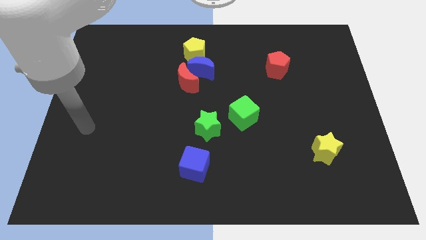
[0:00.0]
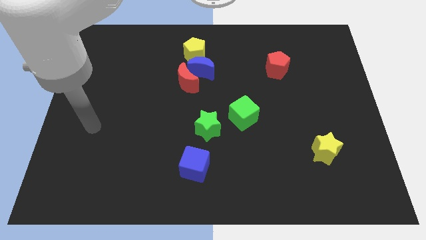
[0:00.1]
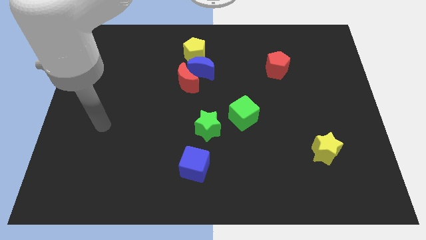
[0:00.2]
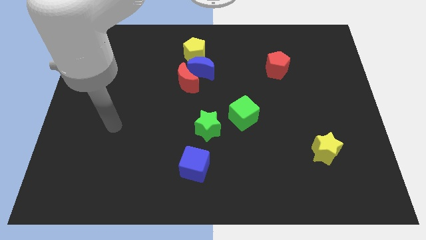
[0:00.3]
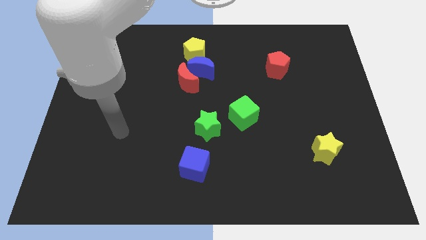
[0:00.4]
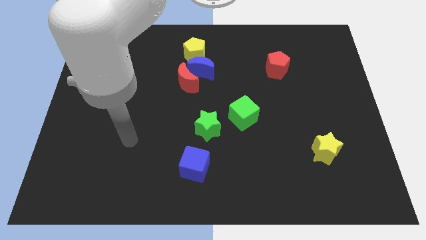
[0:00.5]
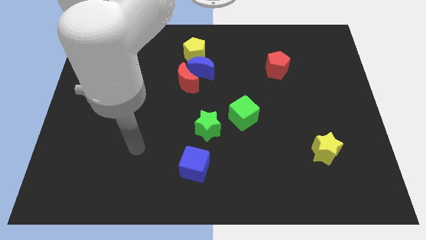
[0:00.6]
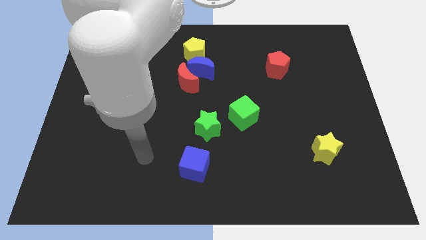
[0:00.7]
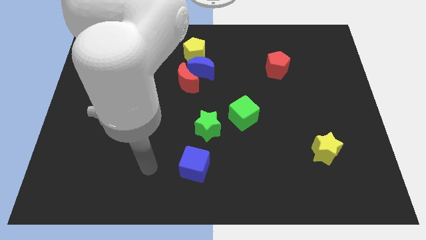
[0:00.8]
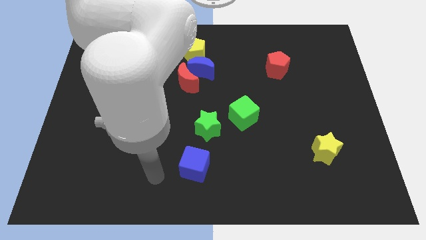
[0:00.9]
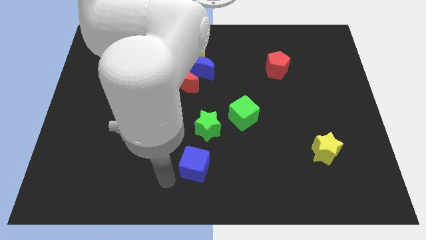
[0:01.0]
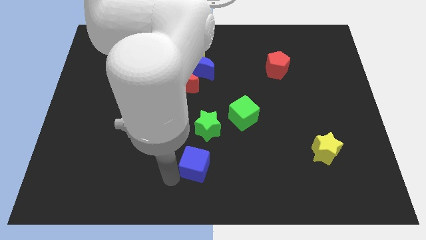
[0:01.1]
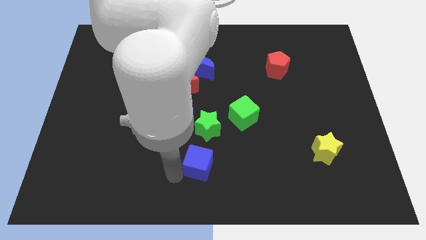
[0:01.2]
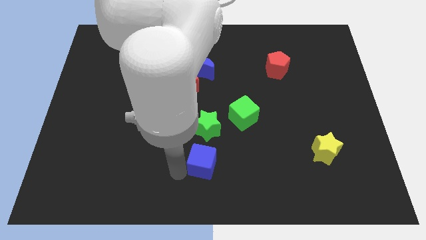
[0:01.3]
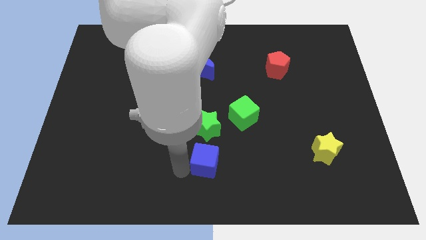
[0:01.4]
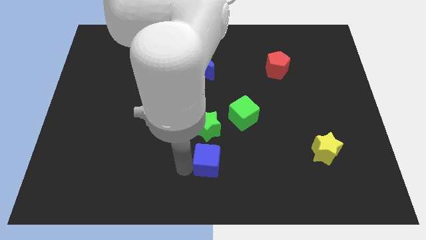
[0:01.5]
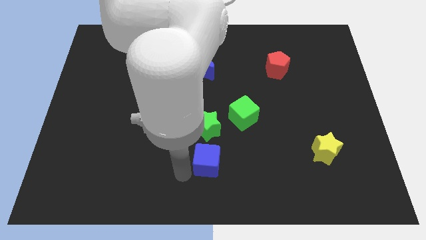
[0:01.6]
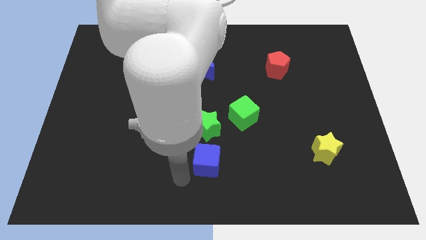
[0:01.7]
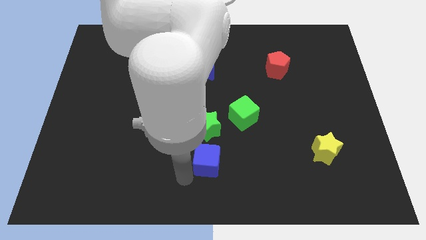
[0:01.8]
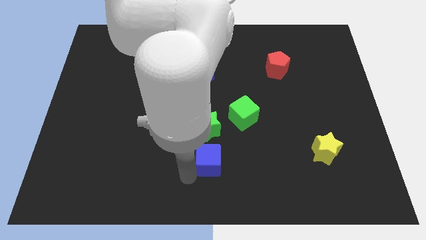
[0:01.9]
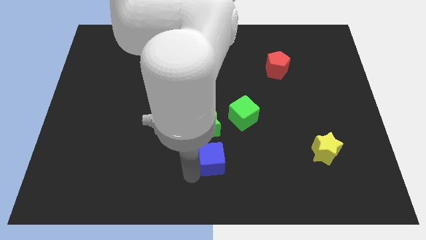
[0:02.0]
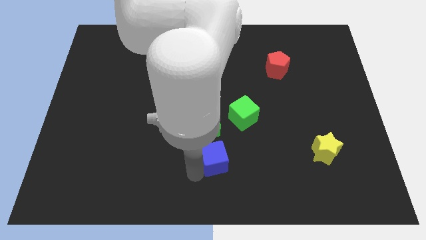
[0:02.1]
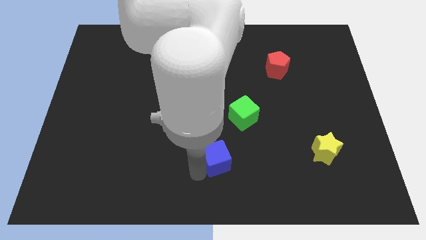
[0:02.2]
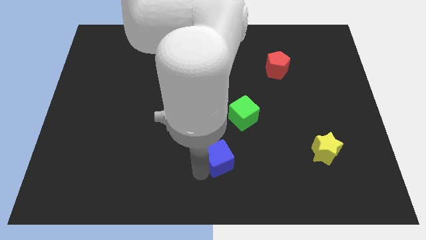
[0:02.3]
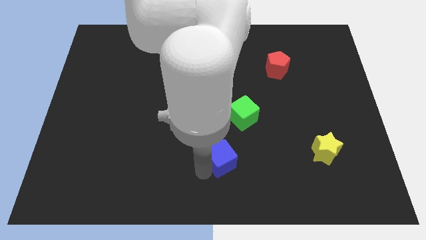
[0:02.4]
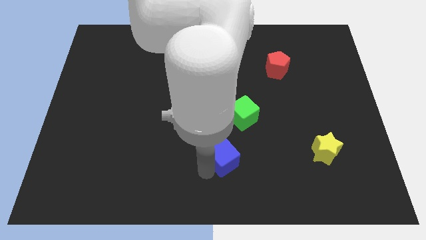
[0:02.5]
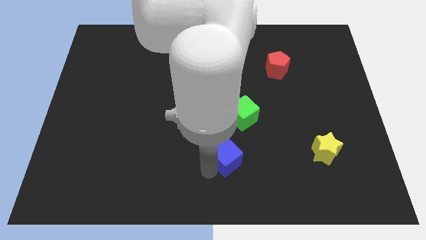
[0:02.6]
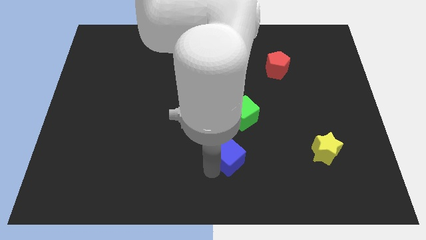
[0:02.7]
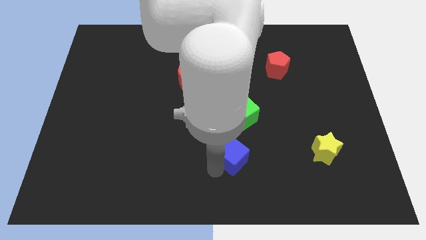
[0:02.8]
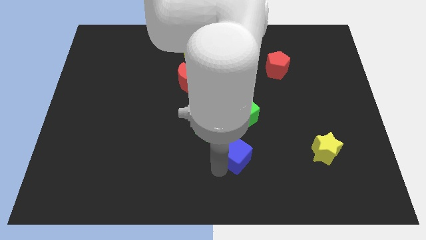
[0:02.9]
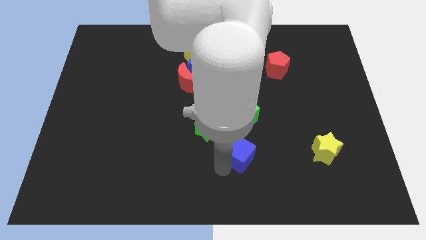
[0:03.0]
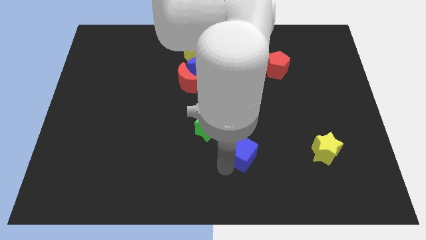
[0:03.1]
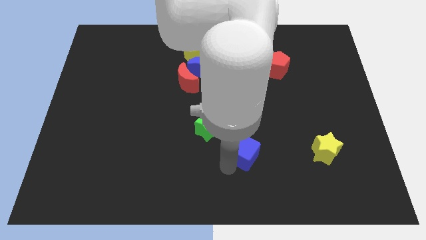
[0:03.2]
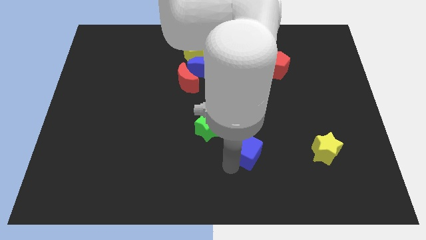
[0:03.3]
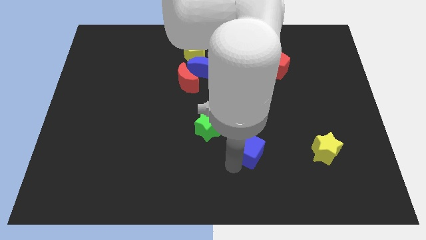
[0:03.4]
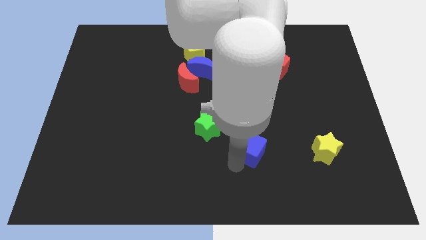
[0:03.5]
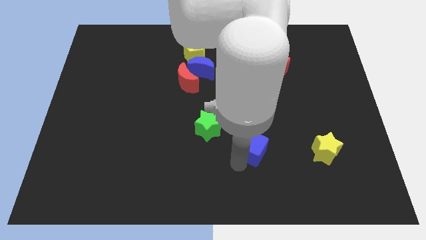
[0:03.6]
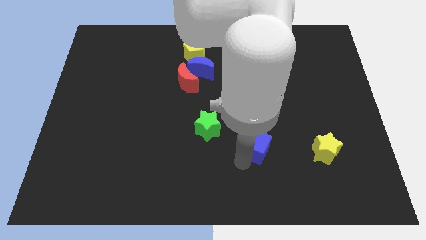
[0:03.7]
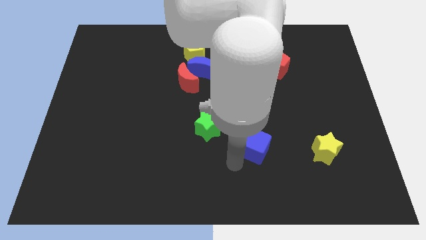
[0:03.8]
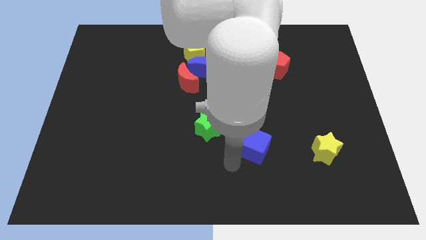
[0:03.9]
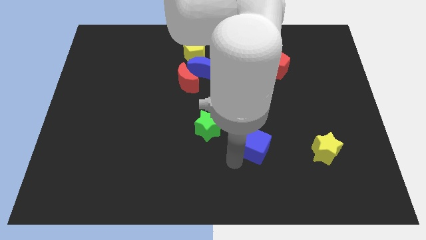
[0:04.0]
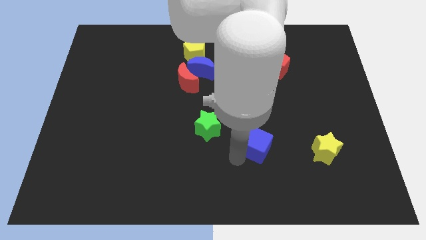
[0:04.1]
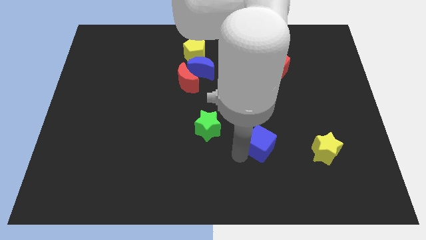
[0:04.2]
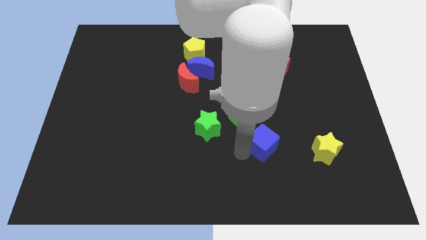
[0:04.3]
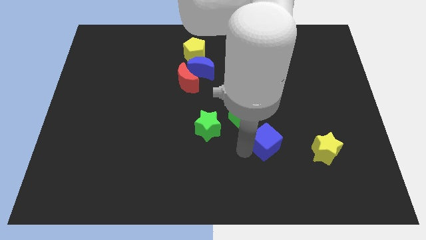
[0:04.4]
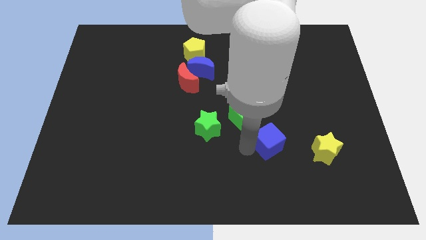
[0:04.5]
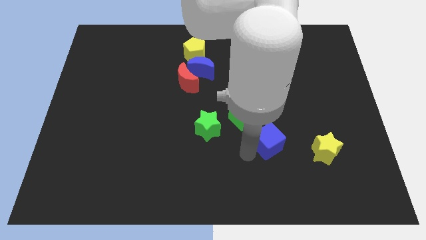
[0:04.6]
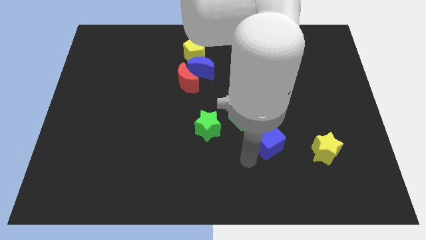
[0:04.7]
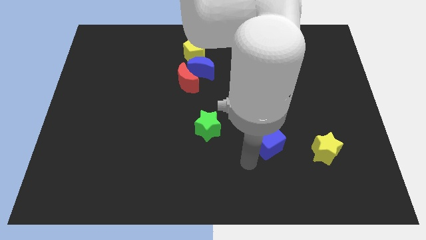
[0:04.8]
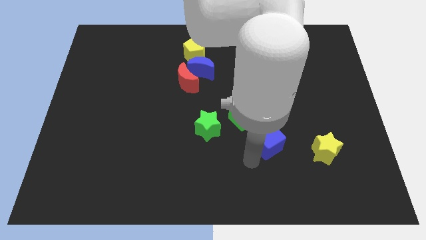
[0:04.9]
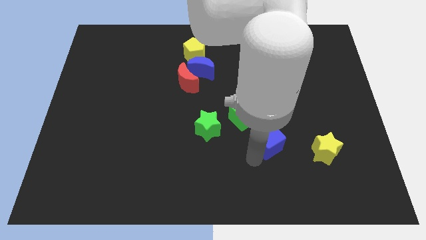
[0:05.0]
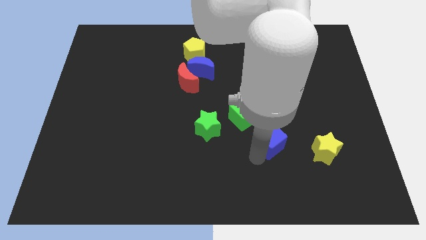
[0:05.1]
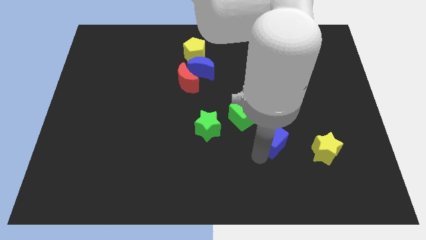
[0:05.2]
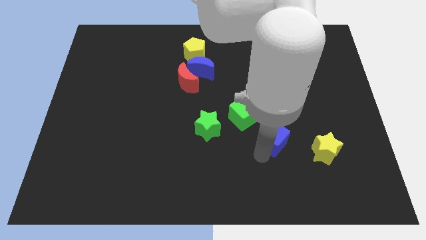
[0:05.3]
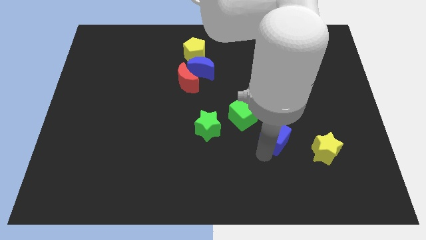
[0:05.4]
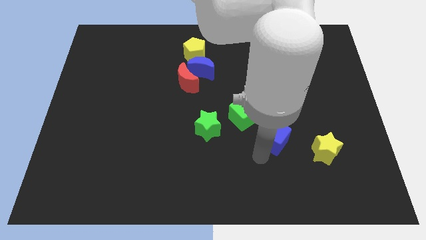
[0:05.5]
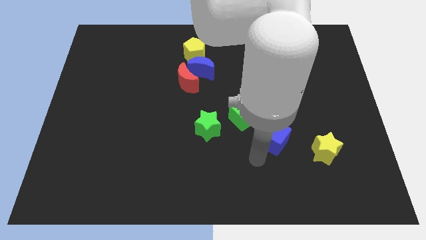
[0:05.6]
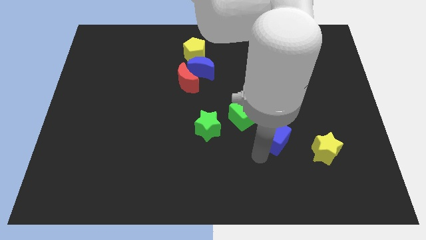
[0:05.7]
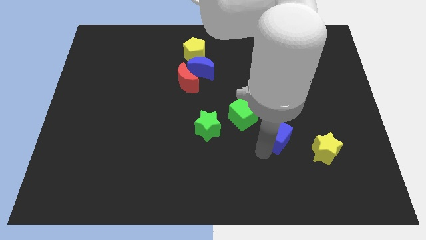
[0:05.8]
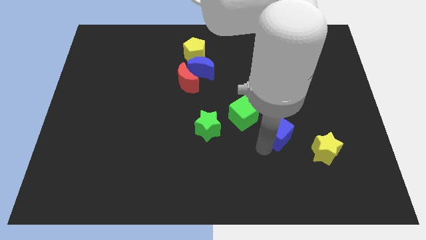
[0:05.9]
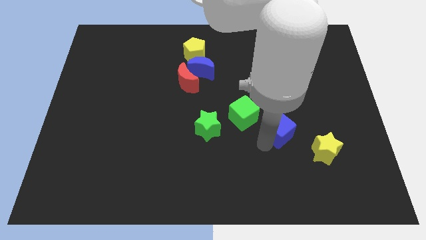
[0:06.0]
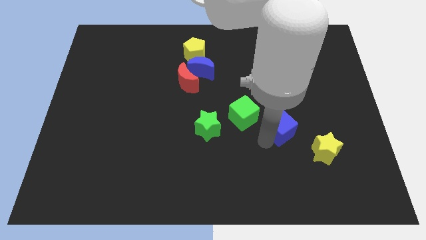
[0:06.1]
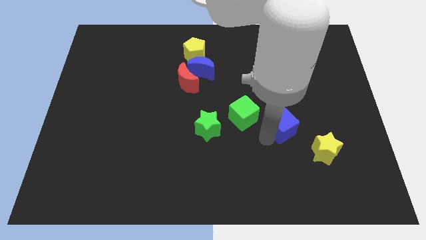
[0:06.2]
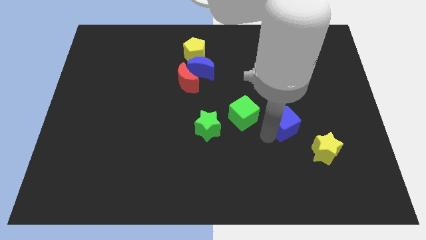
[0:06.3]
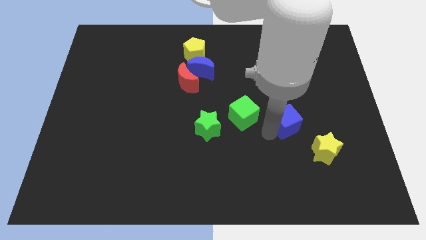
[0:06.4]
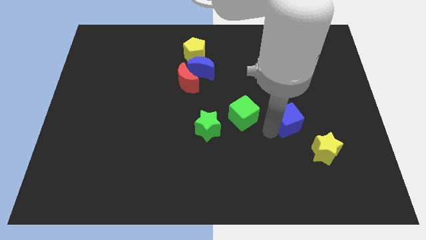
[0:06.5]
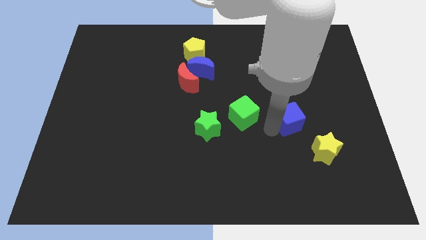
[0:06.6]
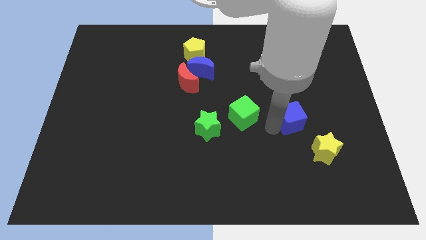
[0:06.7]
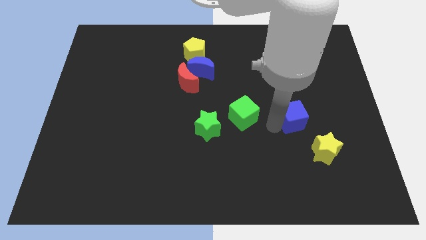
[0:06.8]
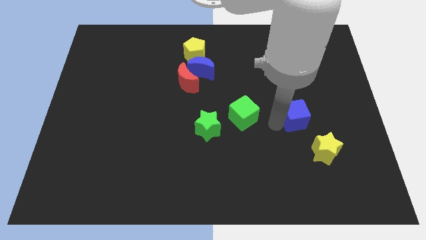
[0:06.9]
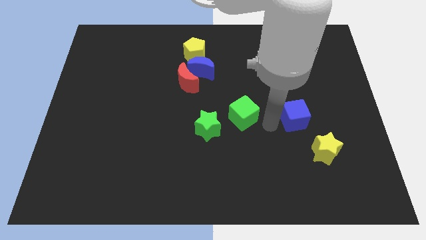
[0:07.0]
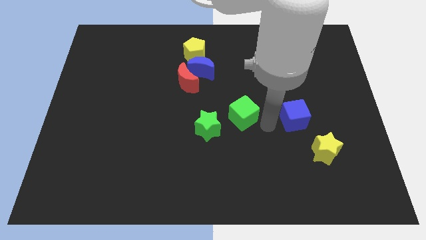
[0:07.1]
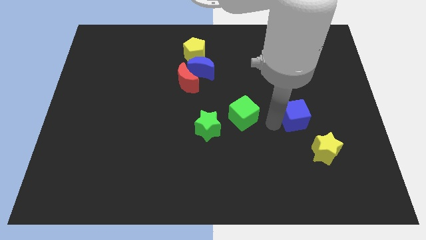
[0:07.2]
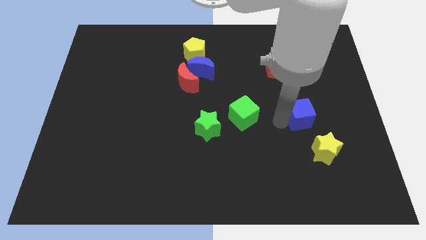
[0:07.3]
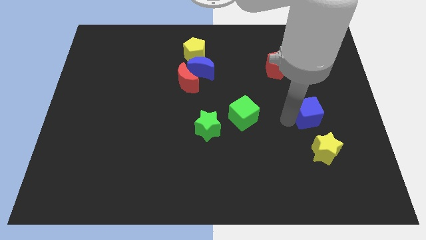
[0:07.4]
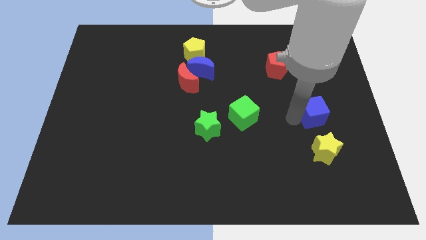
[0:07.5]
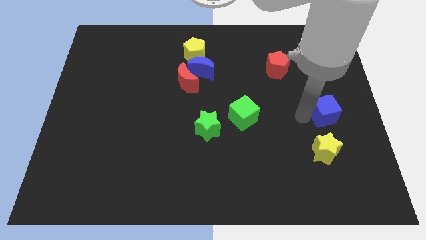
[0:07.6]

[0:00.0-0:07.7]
move the blue cube to the right side
